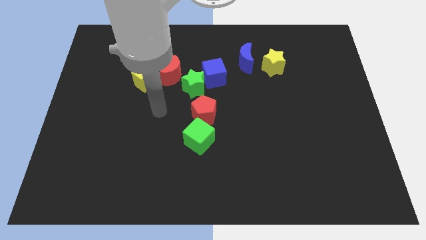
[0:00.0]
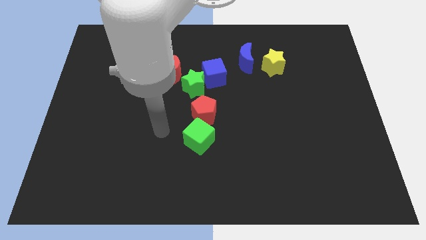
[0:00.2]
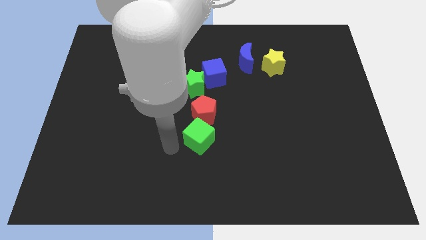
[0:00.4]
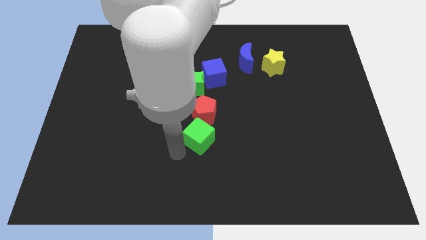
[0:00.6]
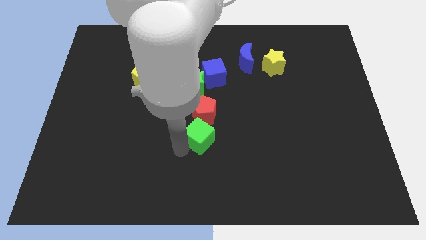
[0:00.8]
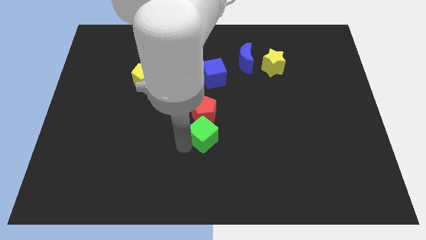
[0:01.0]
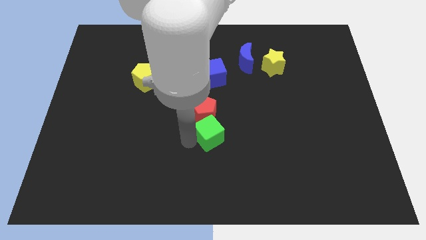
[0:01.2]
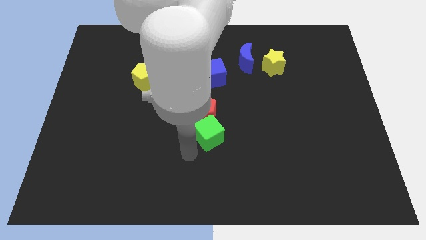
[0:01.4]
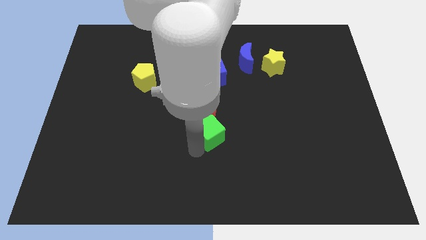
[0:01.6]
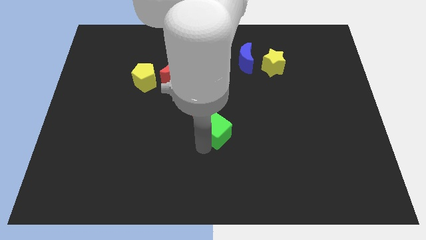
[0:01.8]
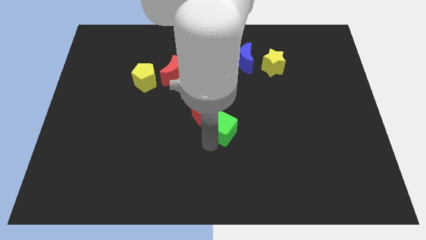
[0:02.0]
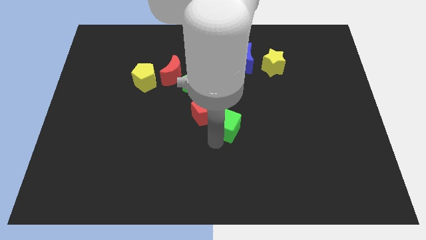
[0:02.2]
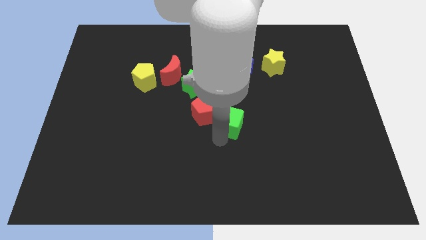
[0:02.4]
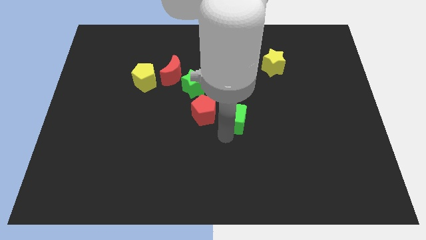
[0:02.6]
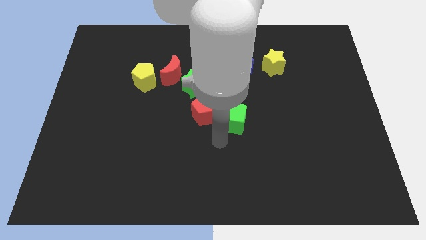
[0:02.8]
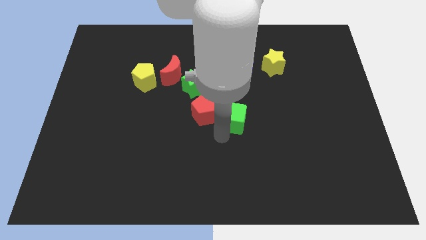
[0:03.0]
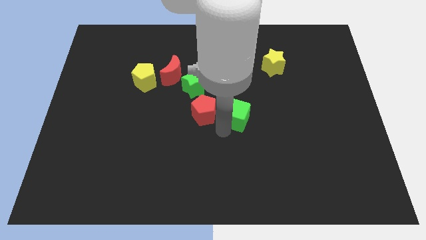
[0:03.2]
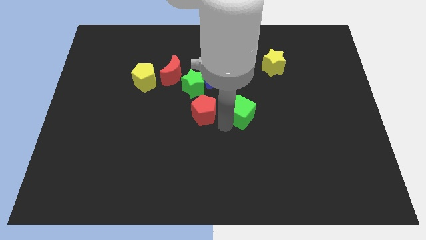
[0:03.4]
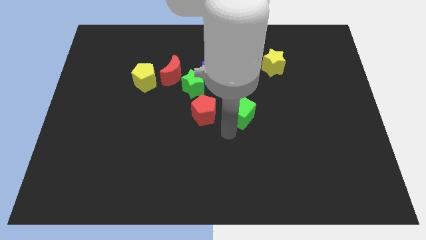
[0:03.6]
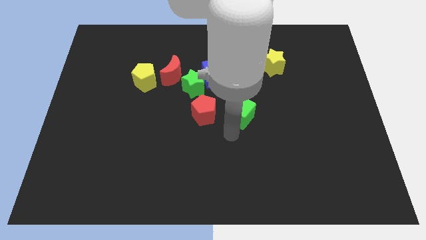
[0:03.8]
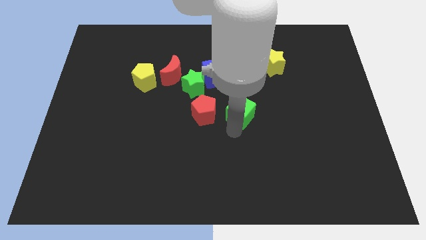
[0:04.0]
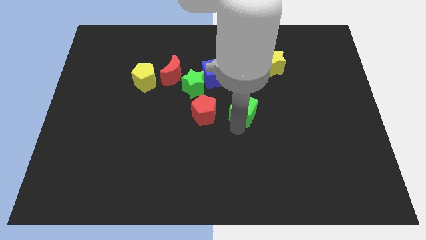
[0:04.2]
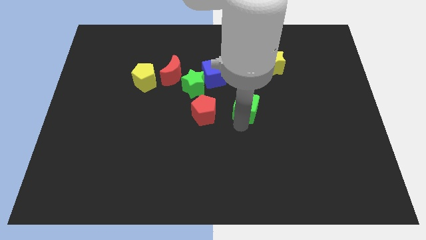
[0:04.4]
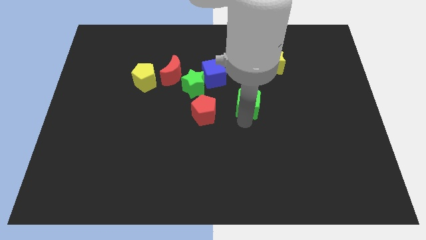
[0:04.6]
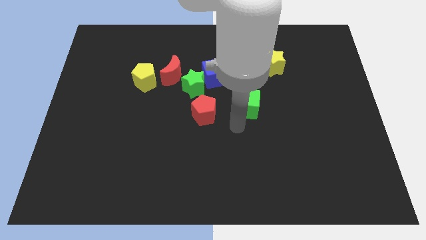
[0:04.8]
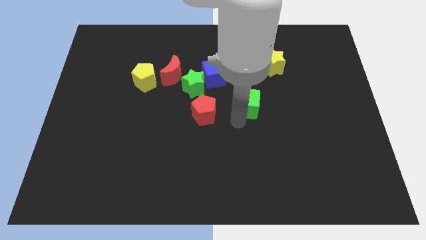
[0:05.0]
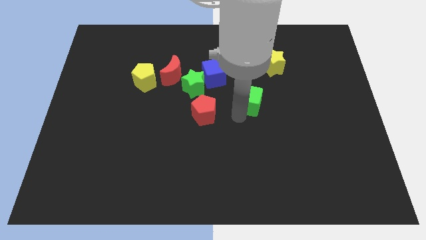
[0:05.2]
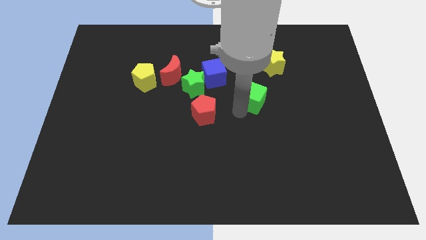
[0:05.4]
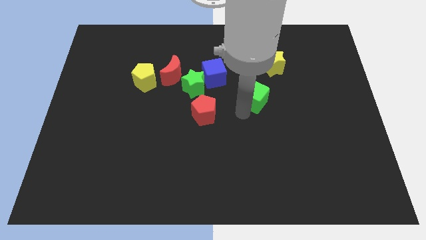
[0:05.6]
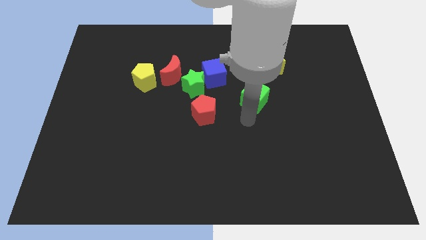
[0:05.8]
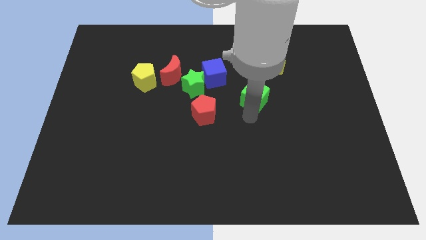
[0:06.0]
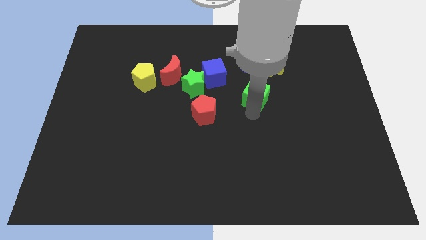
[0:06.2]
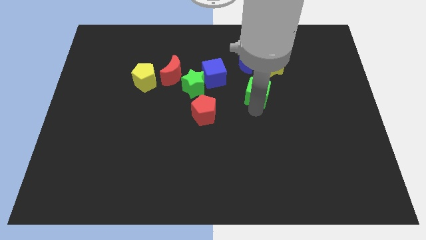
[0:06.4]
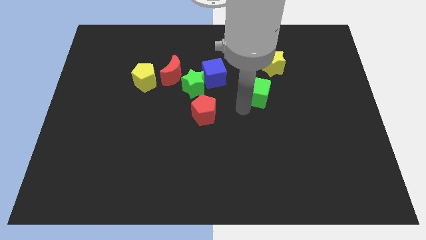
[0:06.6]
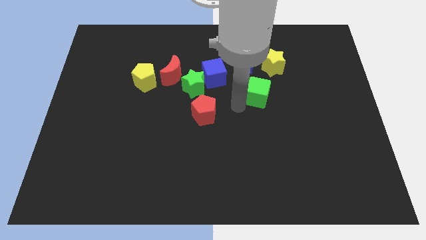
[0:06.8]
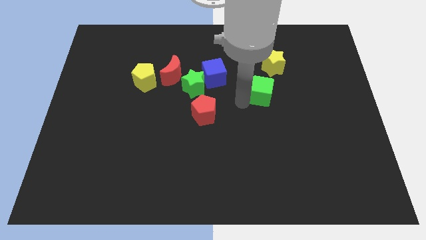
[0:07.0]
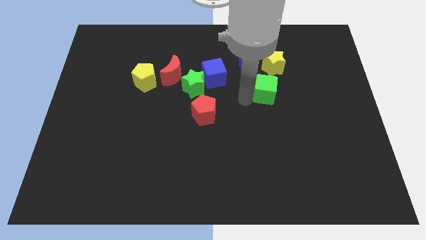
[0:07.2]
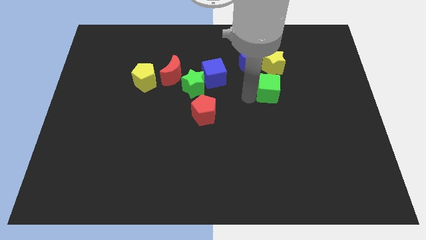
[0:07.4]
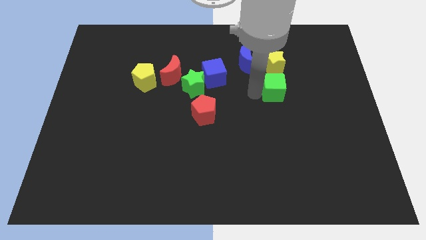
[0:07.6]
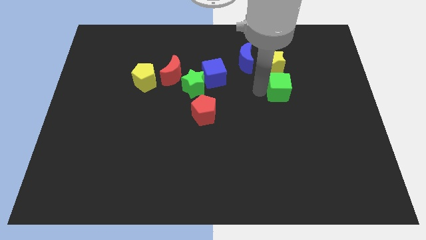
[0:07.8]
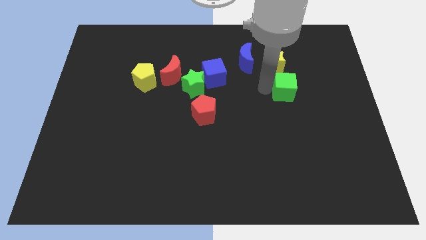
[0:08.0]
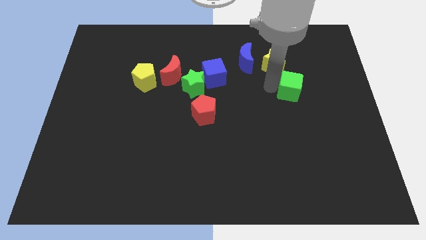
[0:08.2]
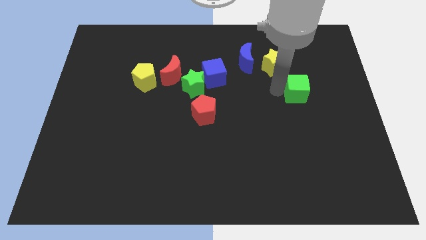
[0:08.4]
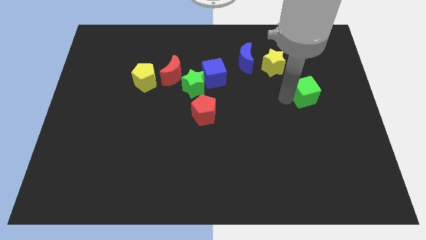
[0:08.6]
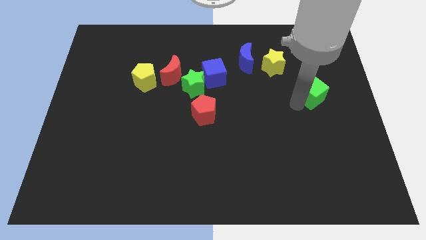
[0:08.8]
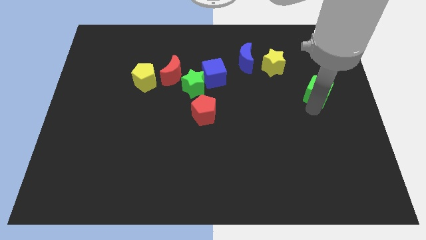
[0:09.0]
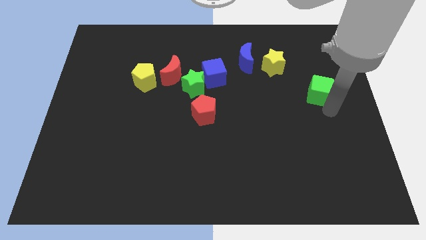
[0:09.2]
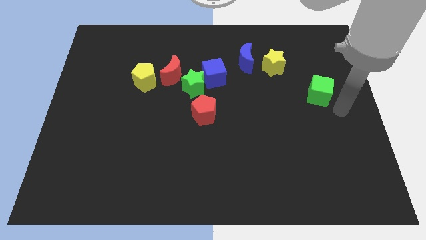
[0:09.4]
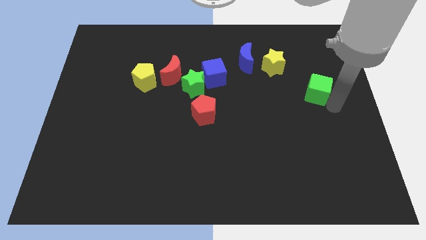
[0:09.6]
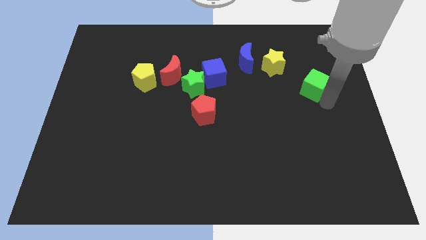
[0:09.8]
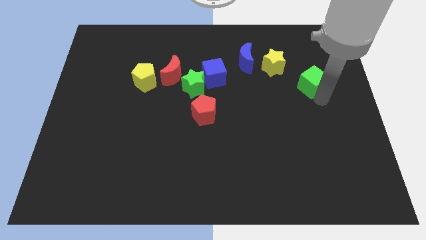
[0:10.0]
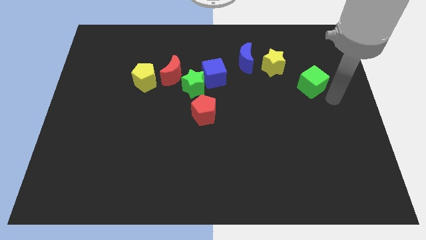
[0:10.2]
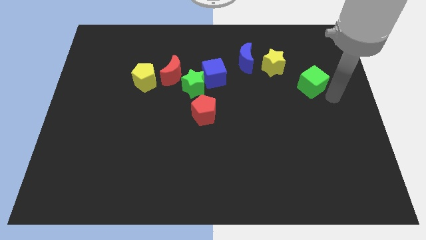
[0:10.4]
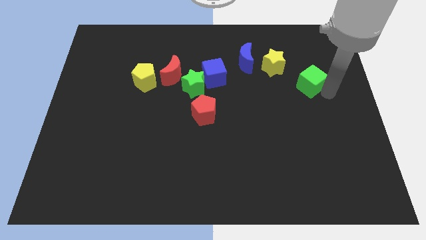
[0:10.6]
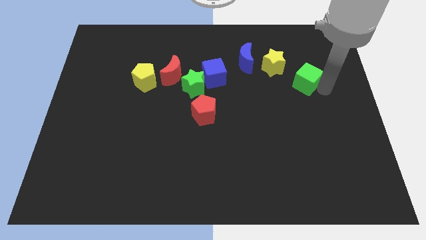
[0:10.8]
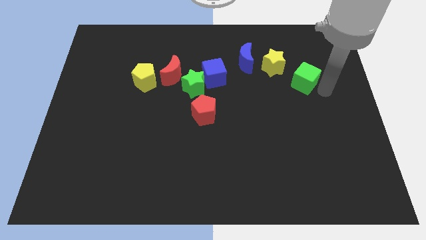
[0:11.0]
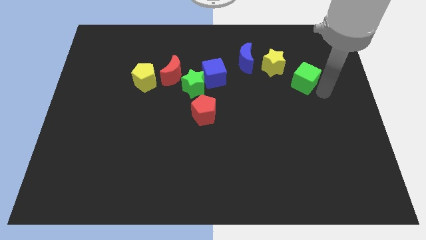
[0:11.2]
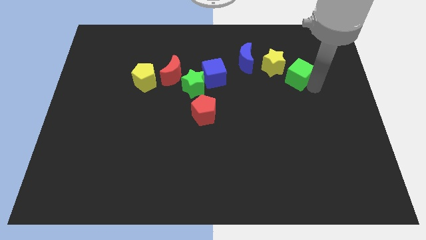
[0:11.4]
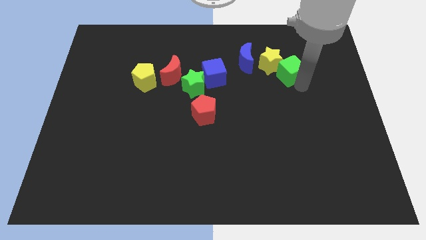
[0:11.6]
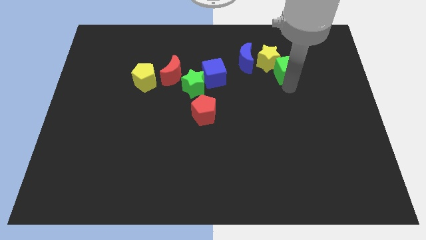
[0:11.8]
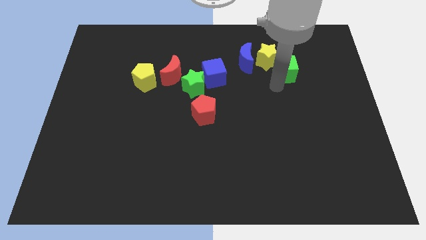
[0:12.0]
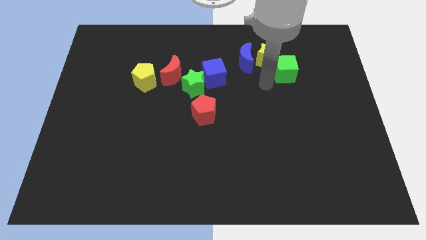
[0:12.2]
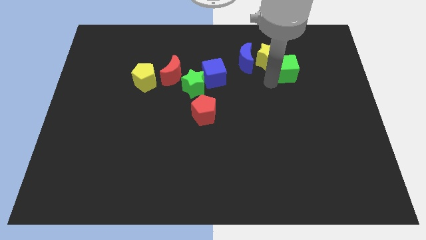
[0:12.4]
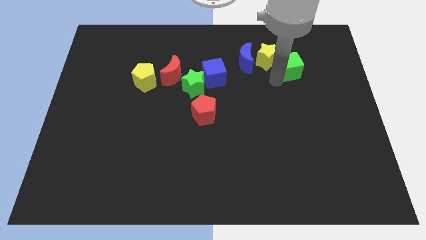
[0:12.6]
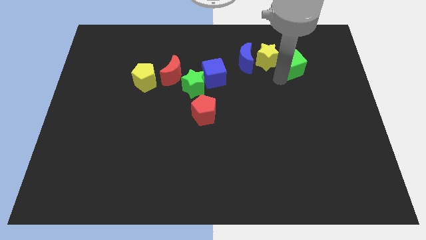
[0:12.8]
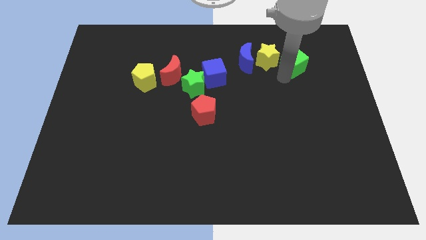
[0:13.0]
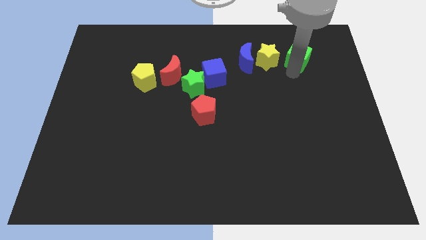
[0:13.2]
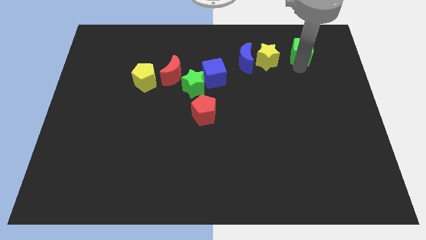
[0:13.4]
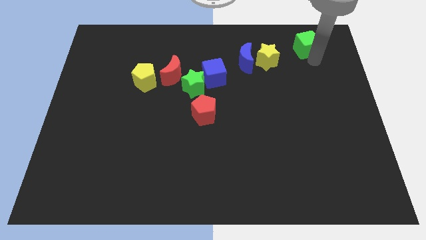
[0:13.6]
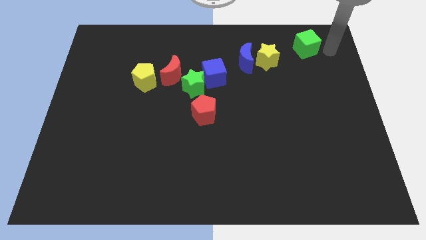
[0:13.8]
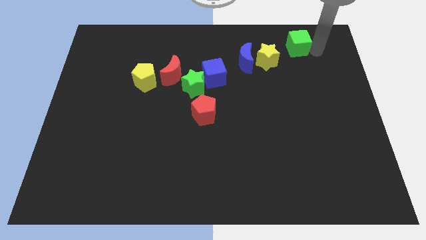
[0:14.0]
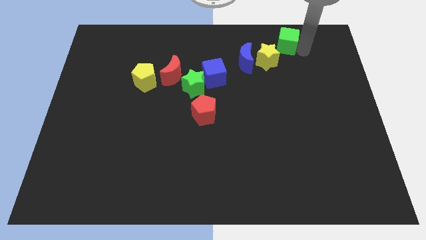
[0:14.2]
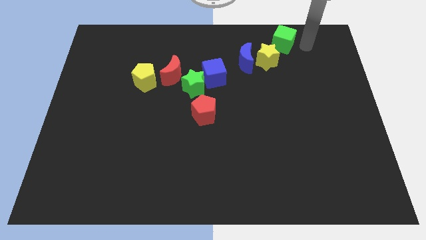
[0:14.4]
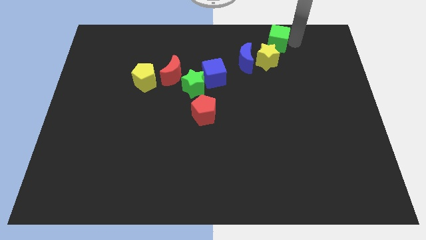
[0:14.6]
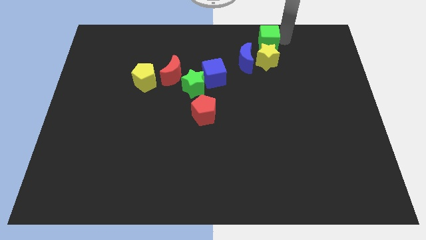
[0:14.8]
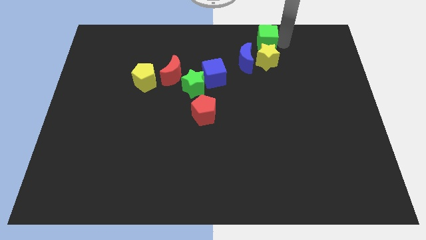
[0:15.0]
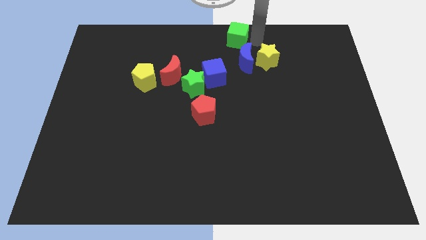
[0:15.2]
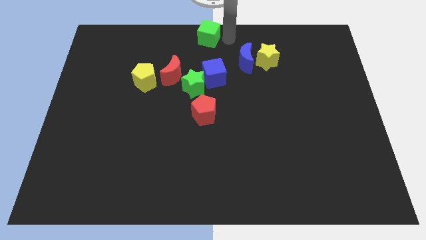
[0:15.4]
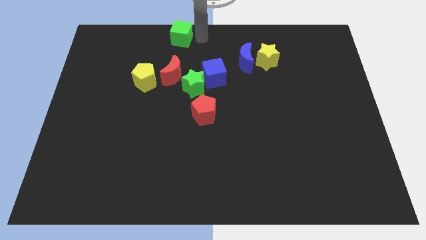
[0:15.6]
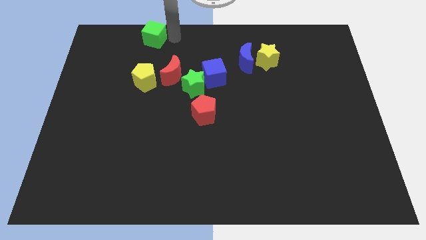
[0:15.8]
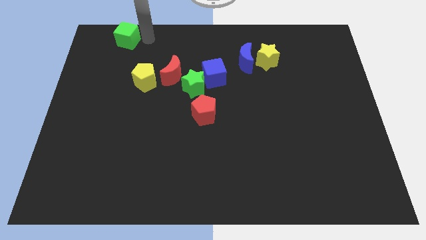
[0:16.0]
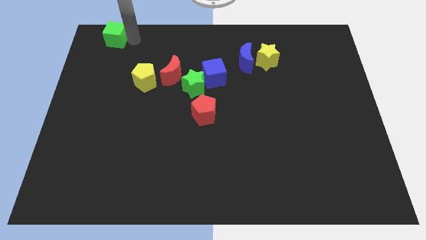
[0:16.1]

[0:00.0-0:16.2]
push the green cube to the top left
